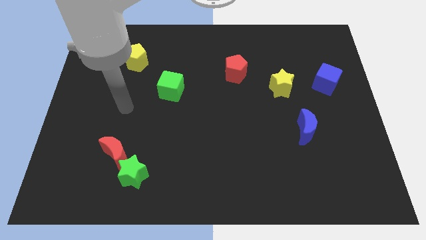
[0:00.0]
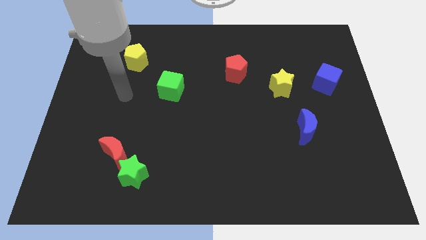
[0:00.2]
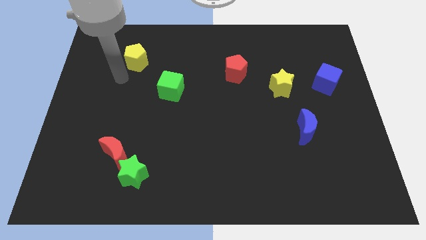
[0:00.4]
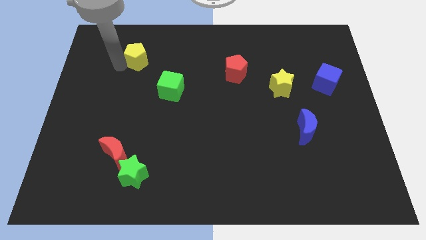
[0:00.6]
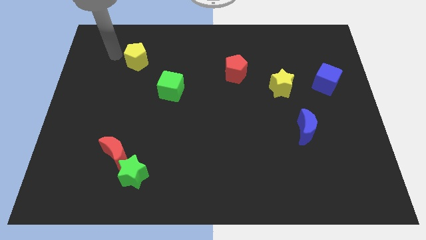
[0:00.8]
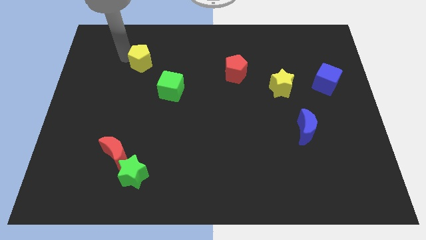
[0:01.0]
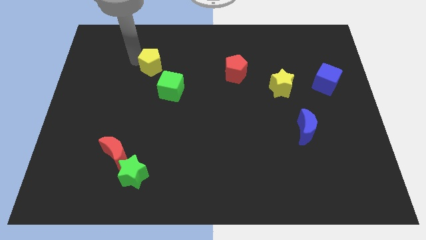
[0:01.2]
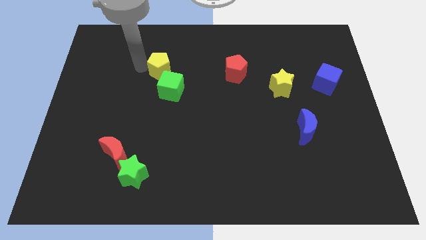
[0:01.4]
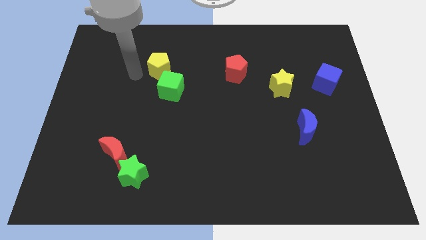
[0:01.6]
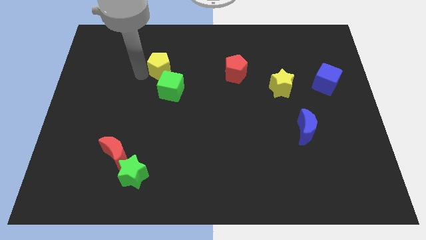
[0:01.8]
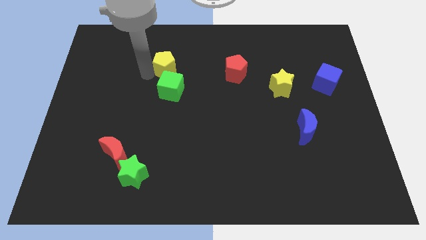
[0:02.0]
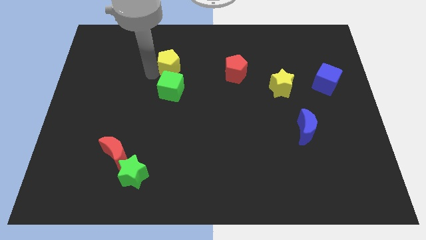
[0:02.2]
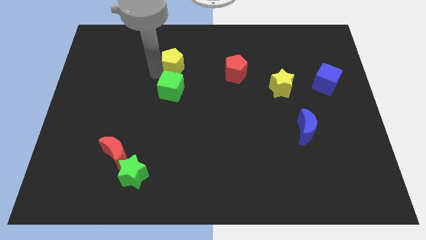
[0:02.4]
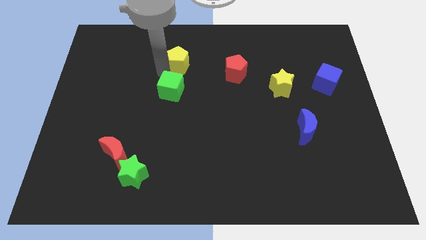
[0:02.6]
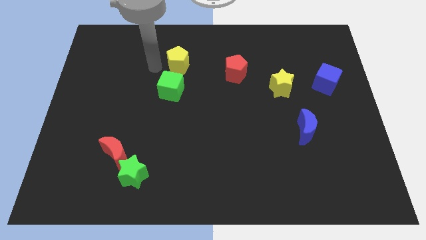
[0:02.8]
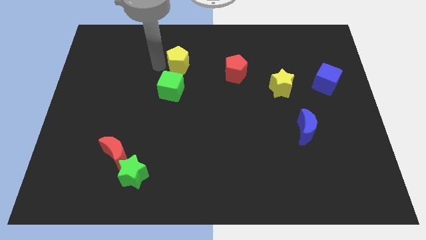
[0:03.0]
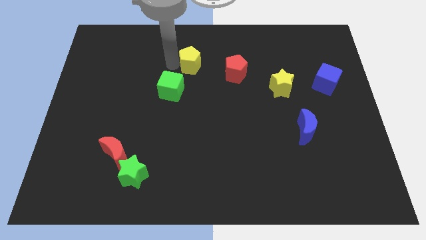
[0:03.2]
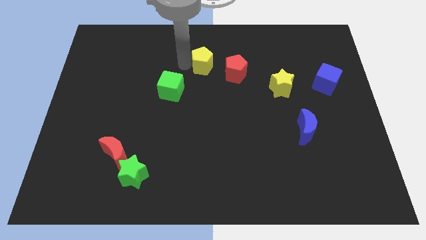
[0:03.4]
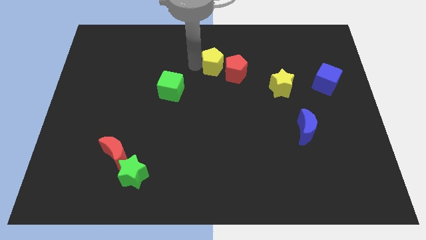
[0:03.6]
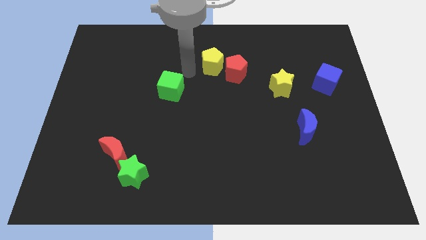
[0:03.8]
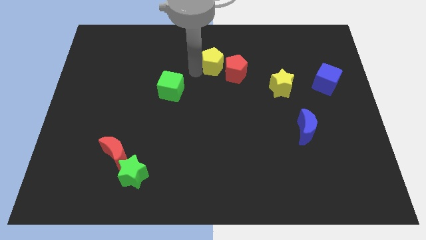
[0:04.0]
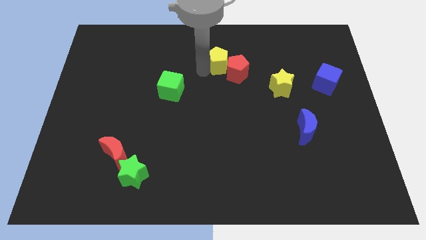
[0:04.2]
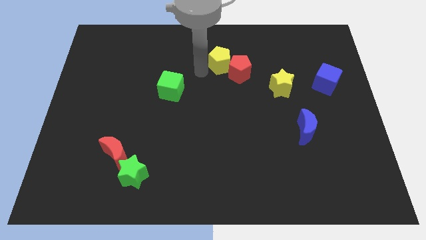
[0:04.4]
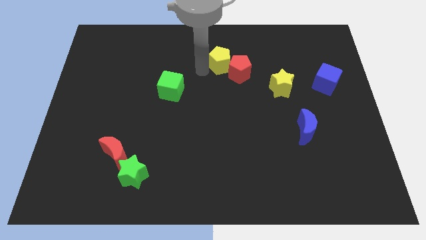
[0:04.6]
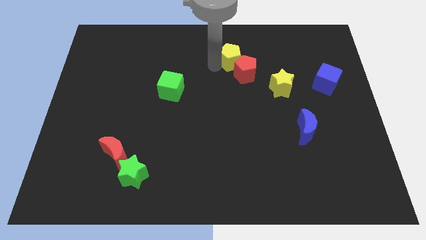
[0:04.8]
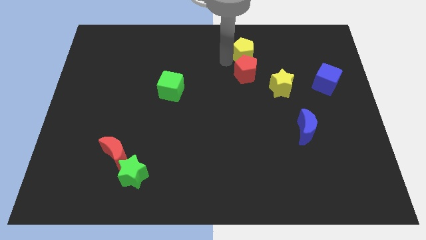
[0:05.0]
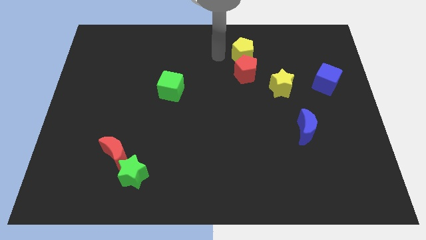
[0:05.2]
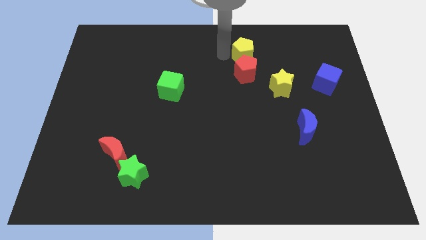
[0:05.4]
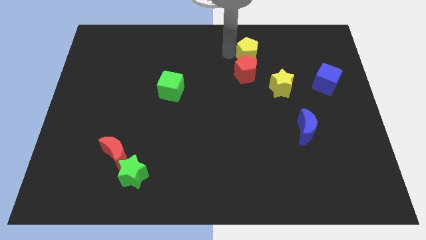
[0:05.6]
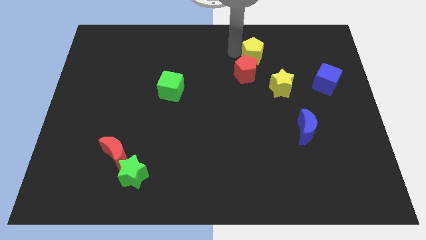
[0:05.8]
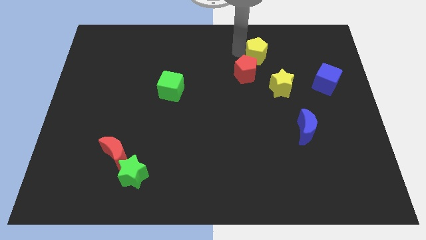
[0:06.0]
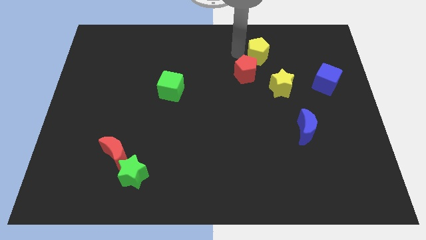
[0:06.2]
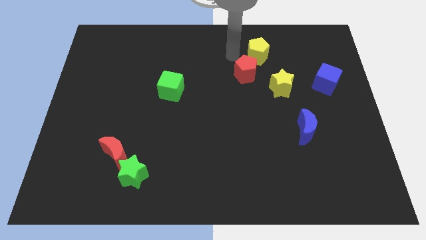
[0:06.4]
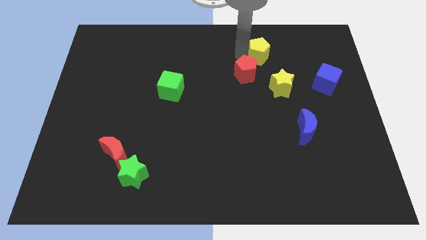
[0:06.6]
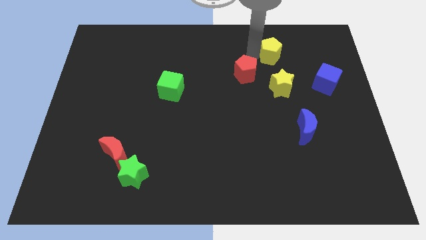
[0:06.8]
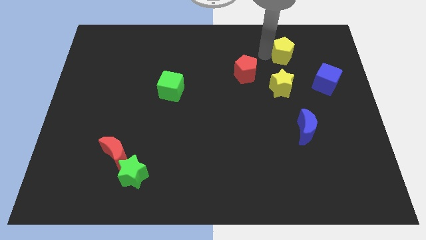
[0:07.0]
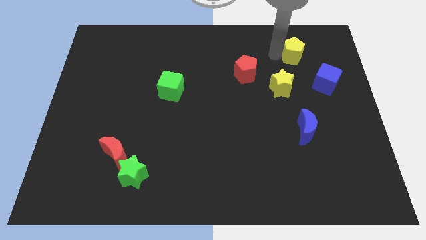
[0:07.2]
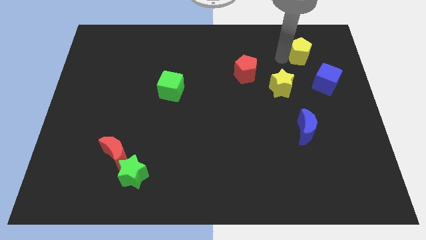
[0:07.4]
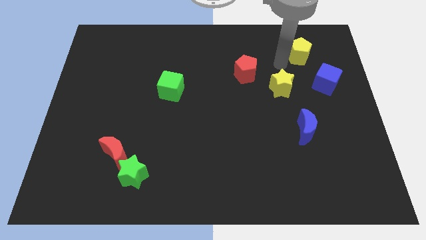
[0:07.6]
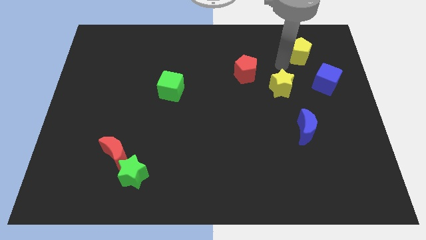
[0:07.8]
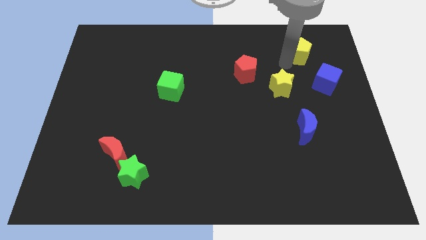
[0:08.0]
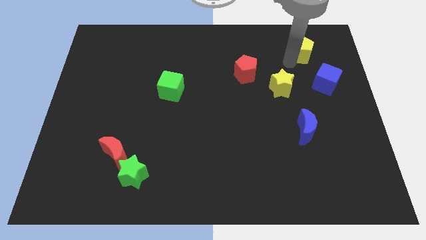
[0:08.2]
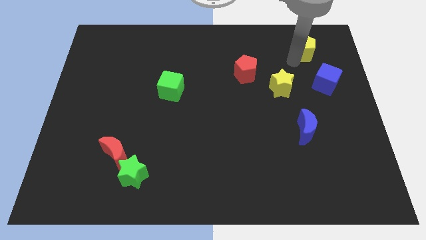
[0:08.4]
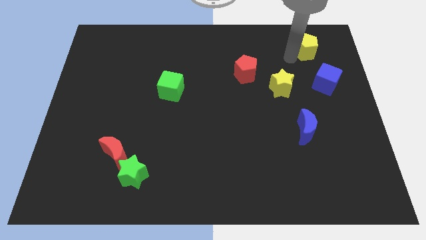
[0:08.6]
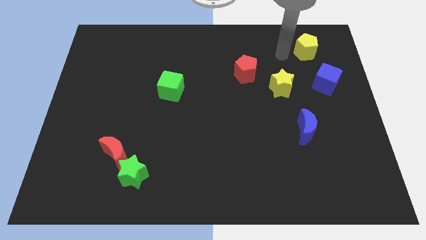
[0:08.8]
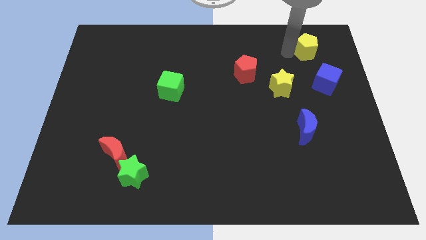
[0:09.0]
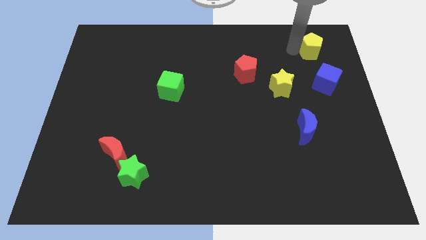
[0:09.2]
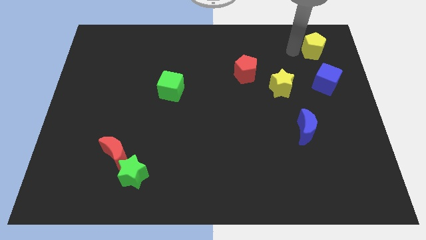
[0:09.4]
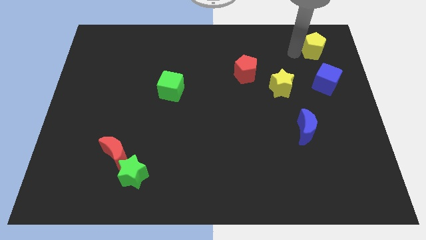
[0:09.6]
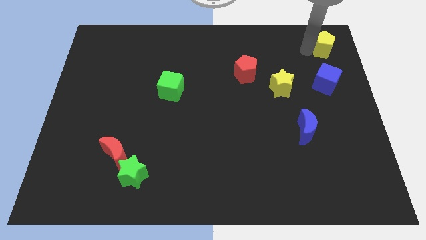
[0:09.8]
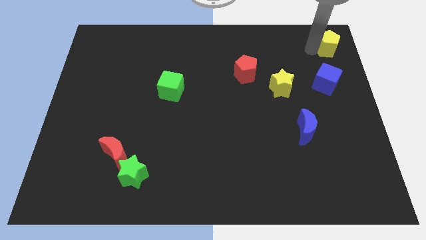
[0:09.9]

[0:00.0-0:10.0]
move the yellow pentagon to the top right

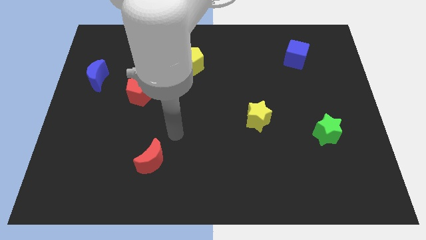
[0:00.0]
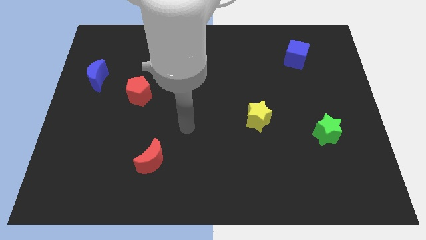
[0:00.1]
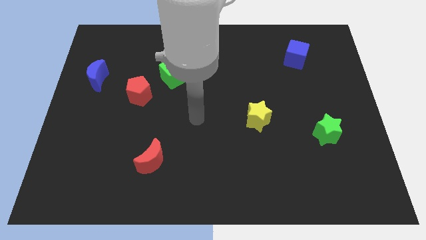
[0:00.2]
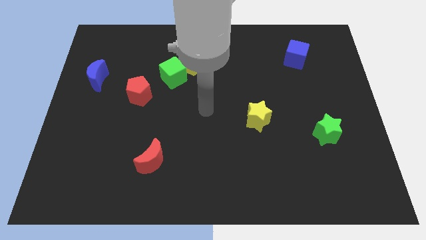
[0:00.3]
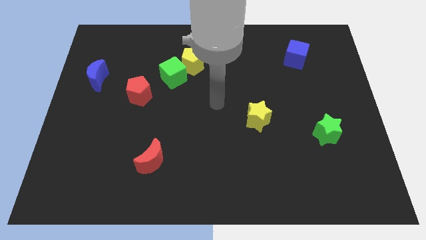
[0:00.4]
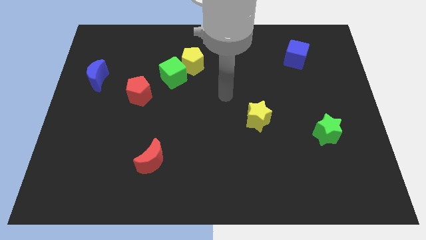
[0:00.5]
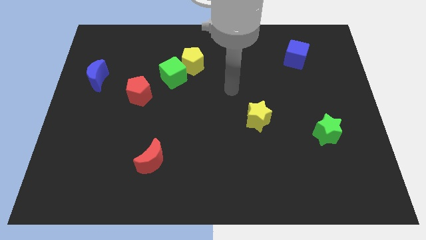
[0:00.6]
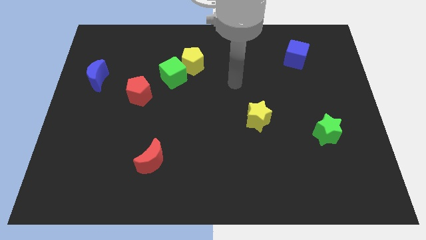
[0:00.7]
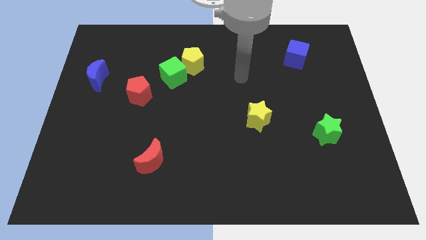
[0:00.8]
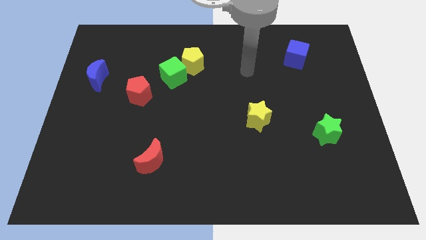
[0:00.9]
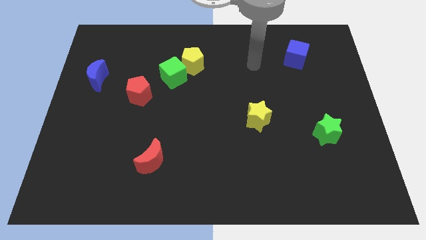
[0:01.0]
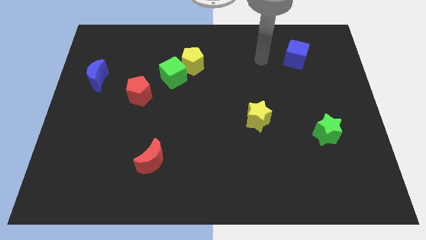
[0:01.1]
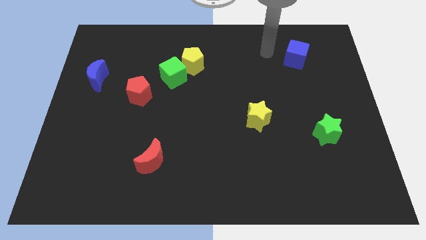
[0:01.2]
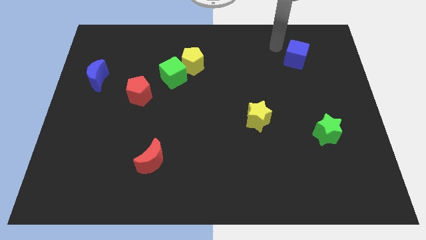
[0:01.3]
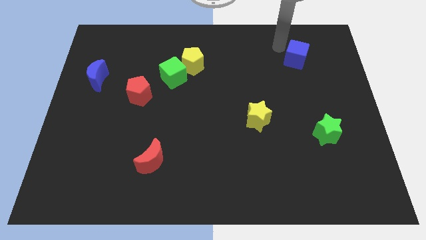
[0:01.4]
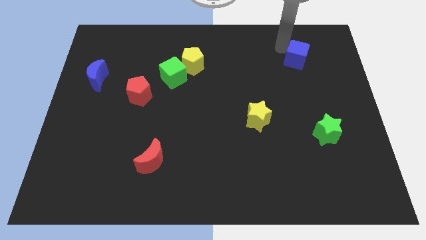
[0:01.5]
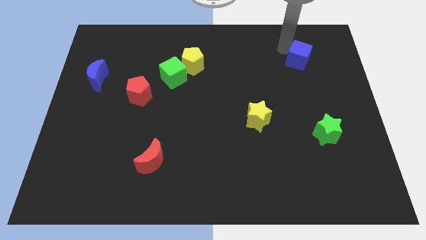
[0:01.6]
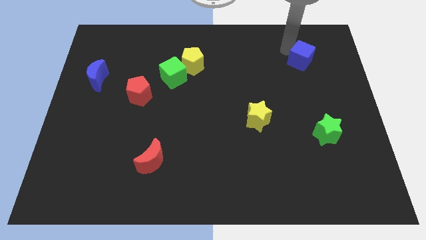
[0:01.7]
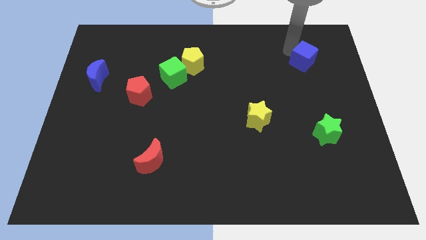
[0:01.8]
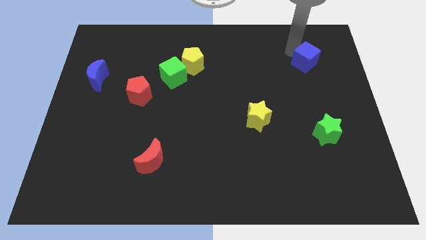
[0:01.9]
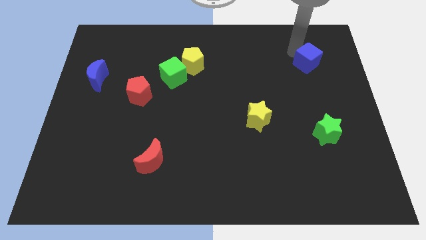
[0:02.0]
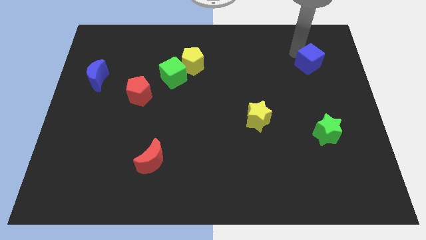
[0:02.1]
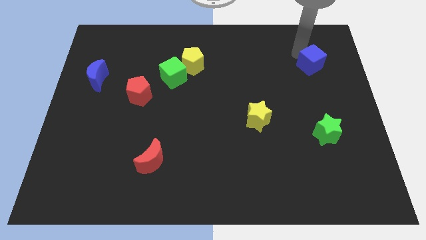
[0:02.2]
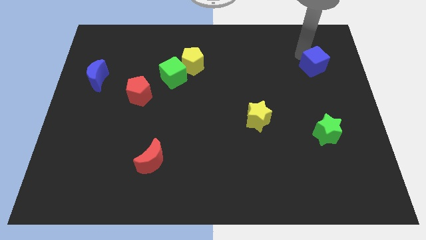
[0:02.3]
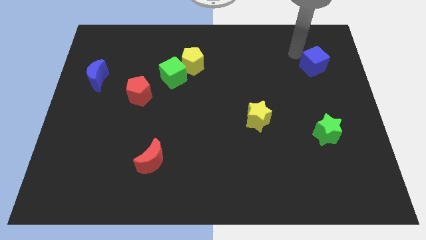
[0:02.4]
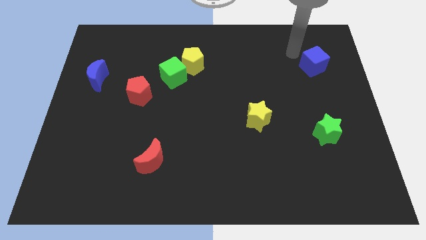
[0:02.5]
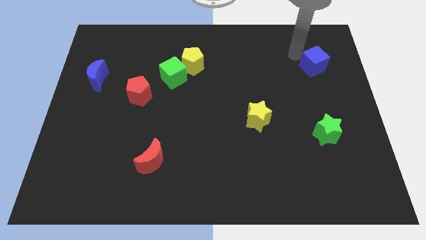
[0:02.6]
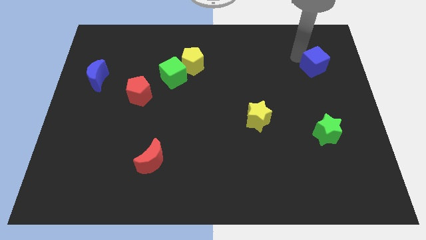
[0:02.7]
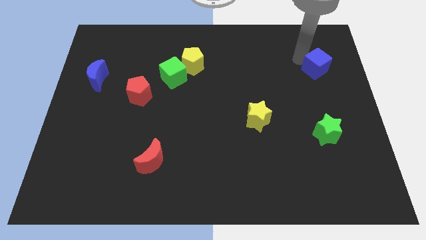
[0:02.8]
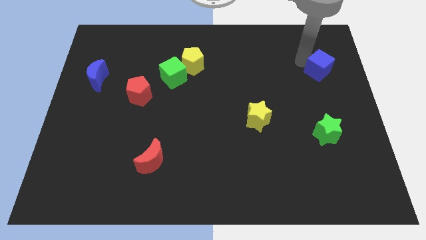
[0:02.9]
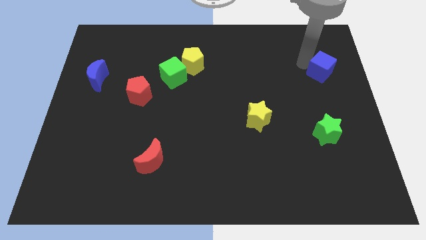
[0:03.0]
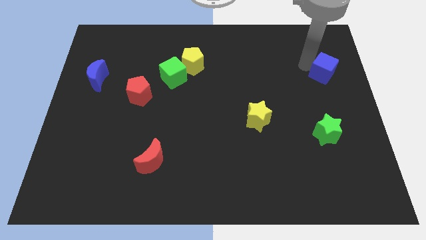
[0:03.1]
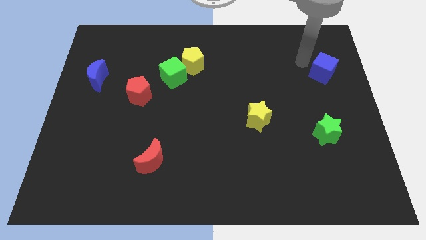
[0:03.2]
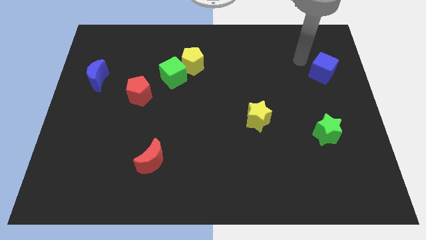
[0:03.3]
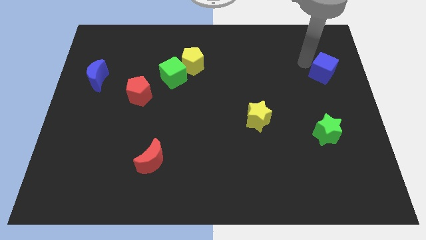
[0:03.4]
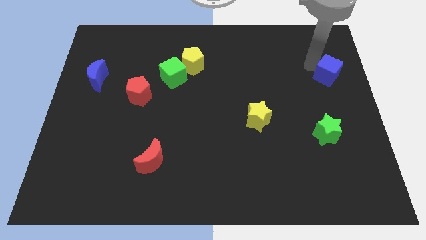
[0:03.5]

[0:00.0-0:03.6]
push the blue cube to the right side
